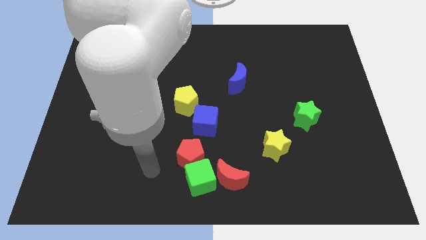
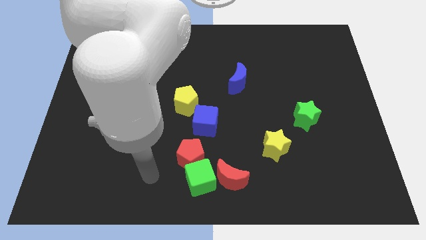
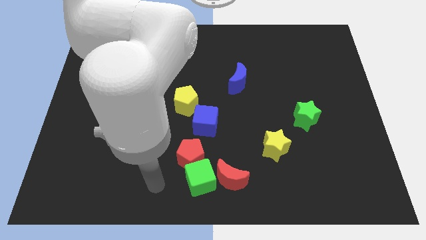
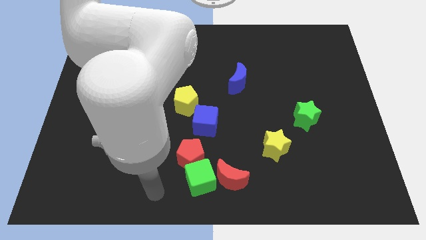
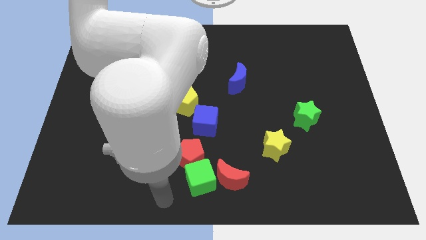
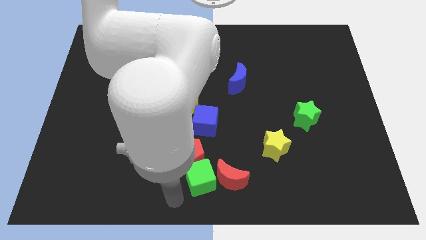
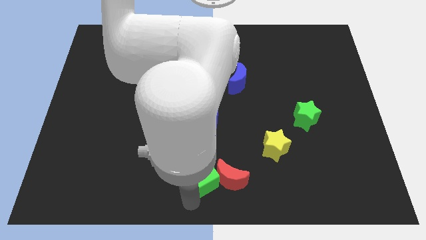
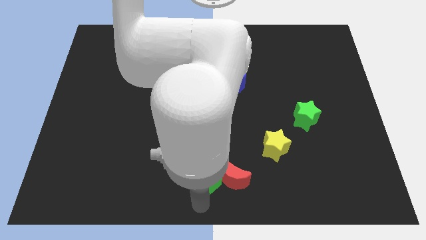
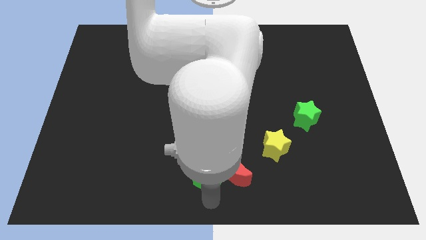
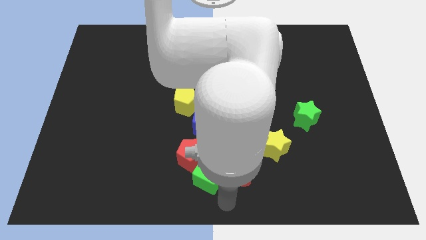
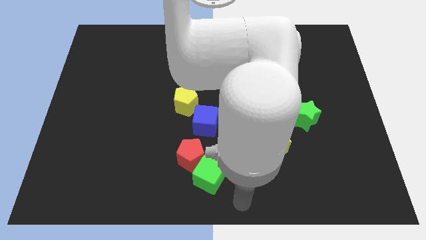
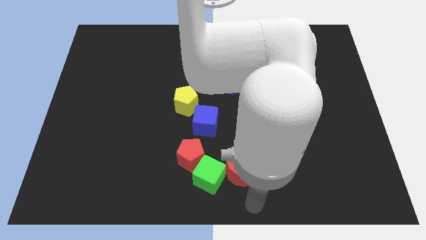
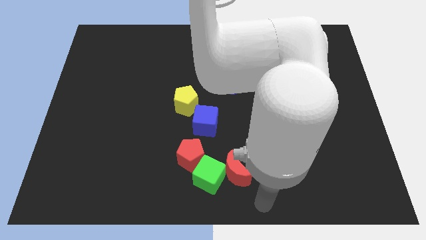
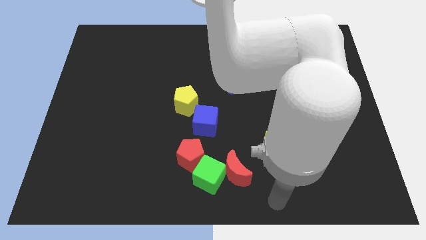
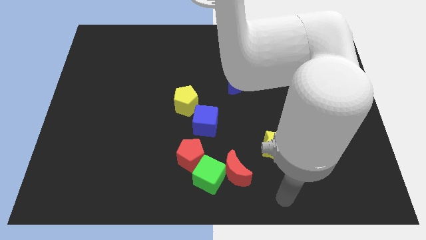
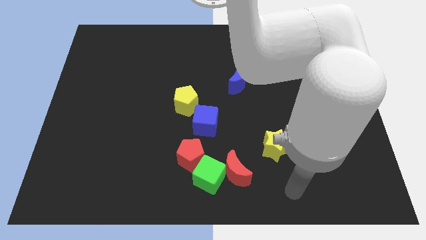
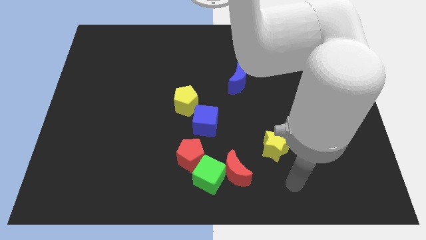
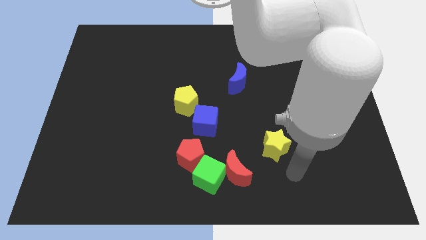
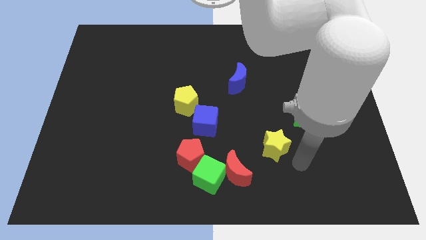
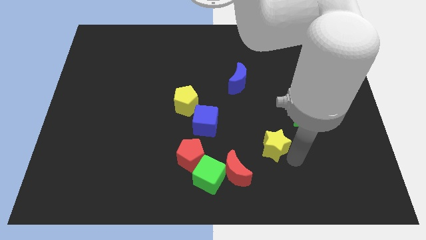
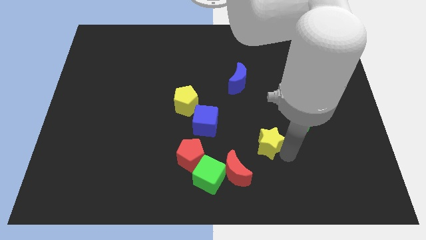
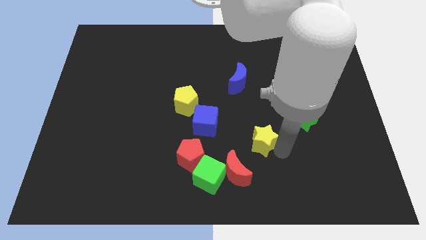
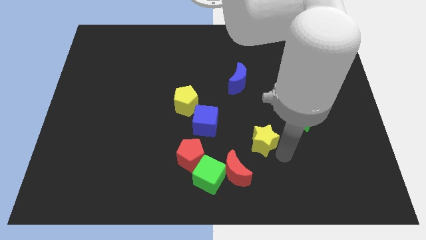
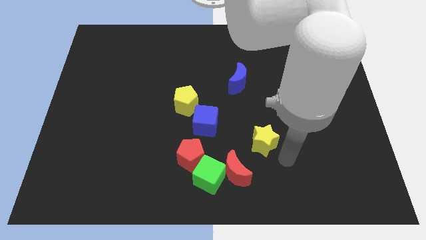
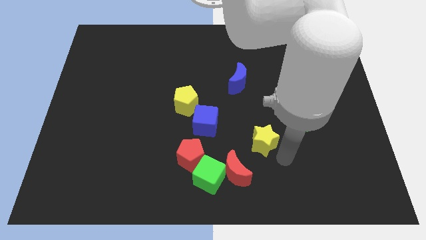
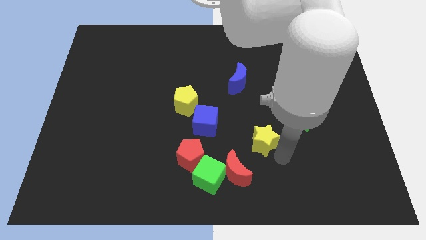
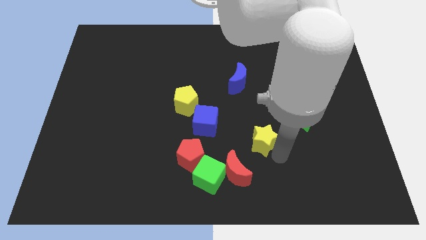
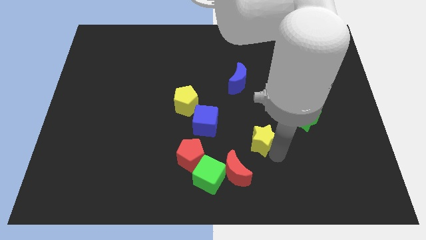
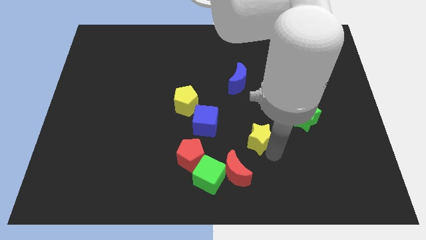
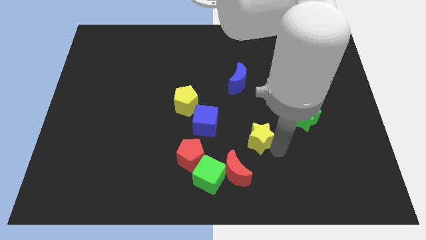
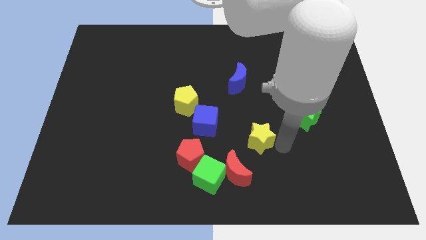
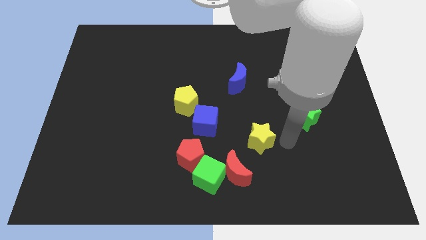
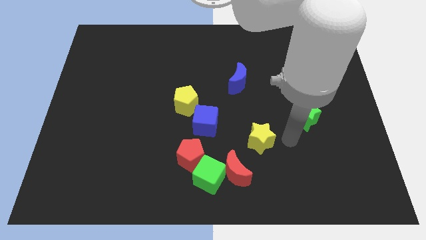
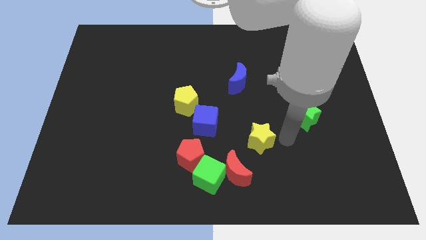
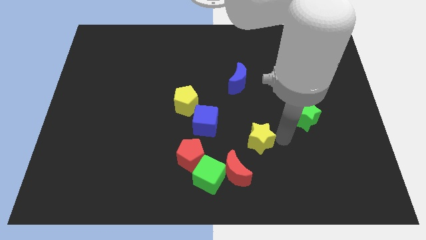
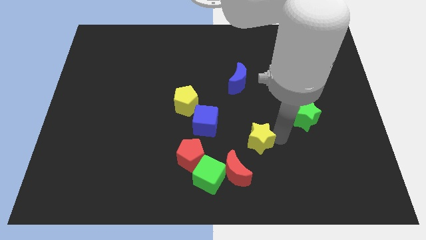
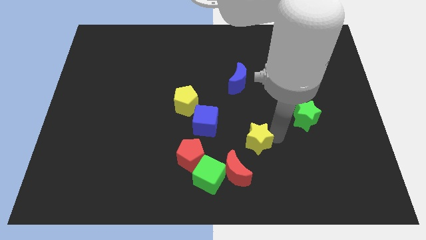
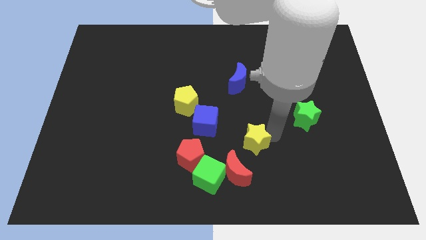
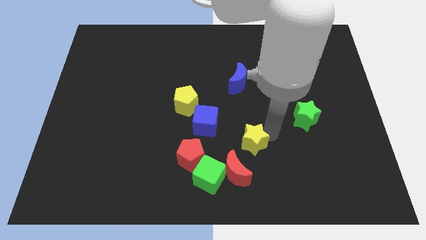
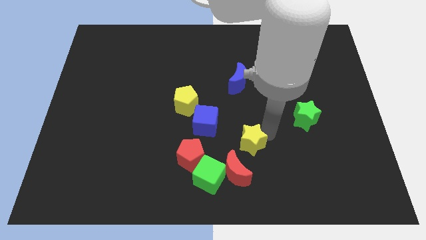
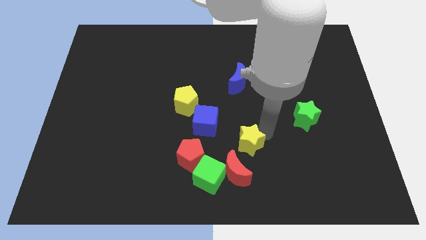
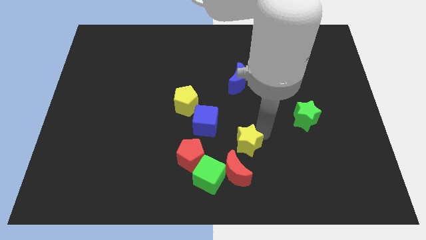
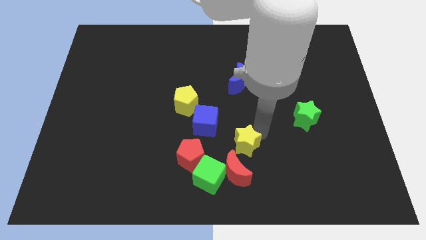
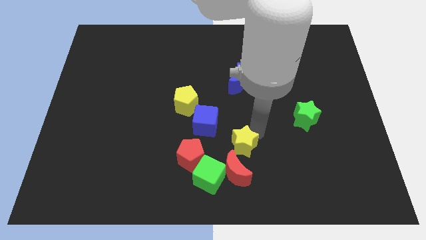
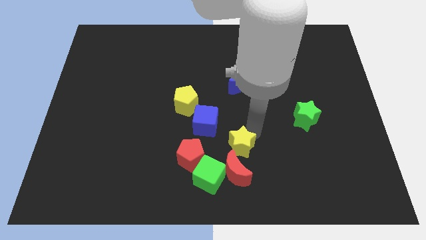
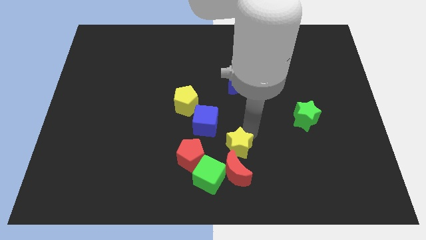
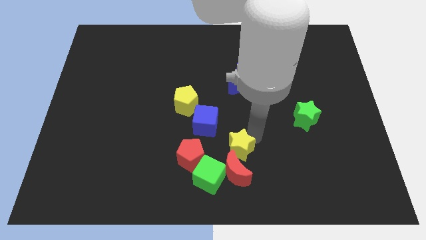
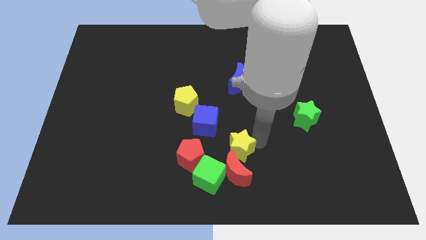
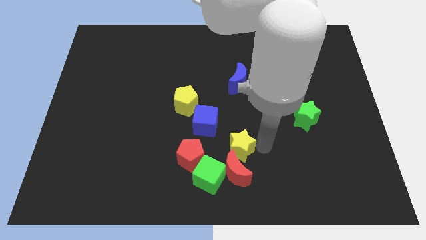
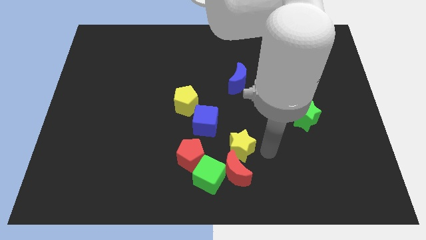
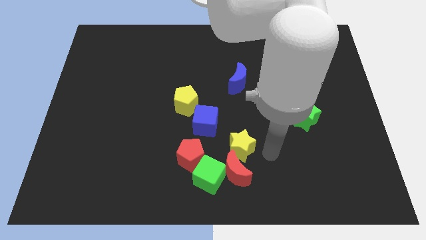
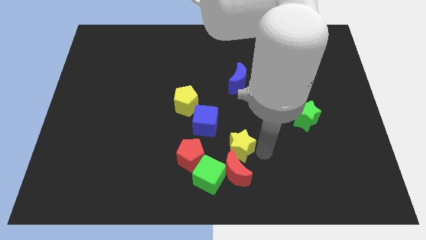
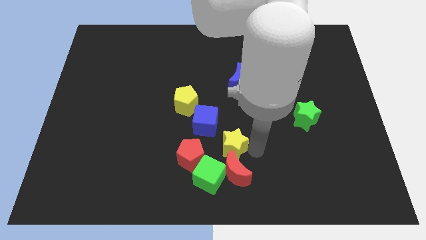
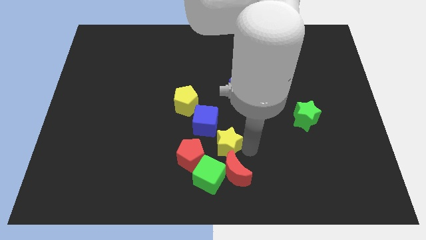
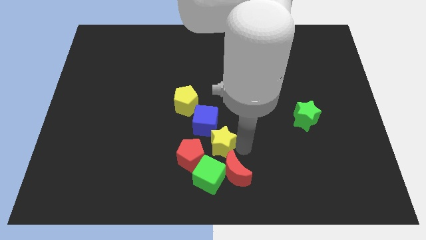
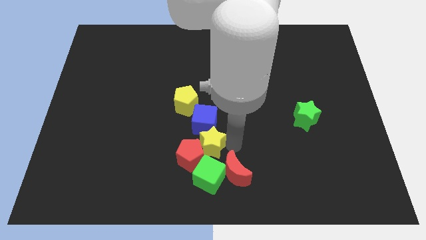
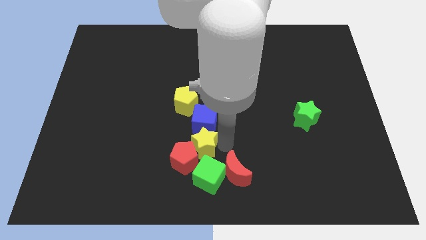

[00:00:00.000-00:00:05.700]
put the yellow star to the bottom of the yellow pentagon

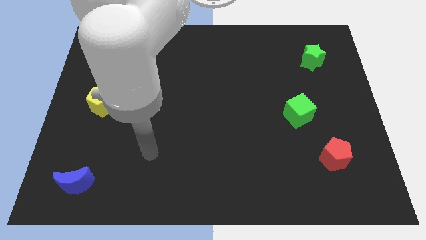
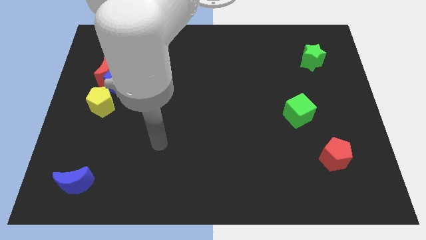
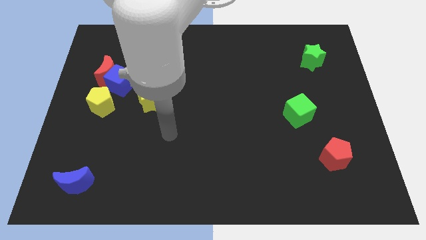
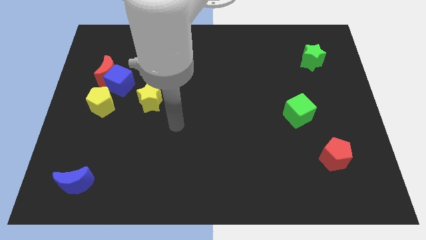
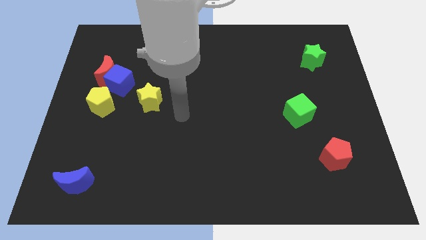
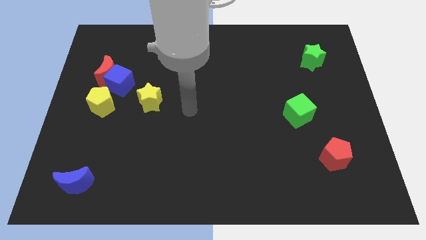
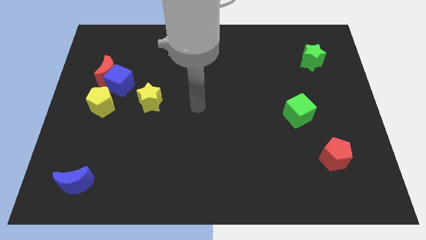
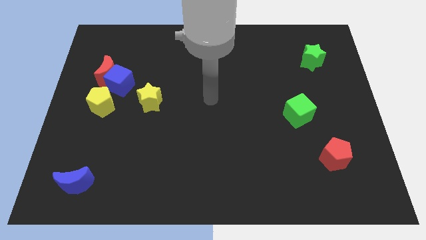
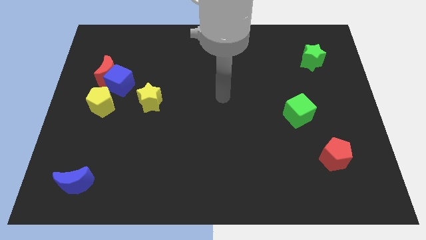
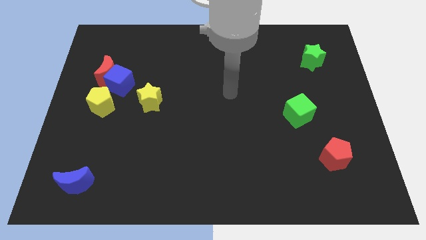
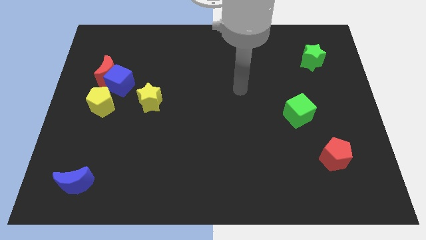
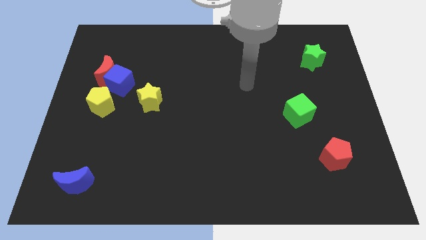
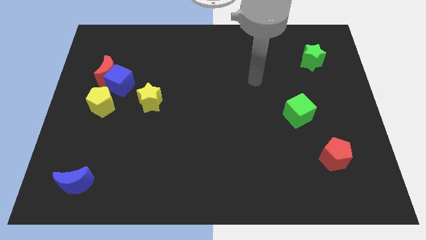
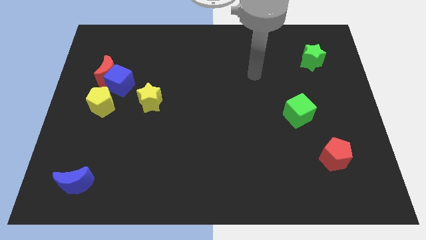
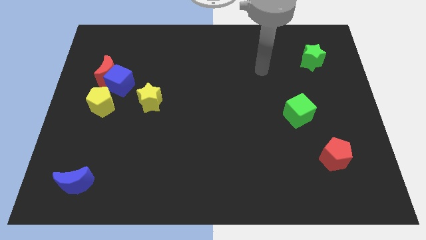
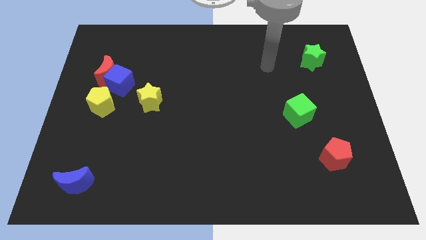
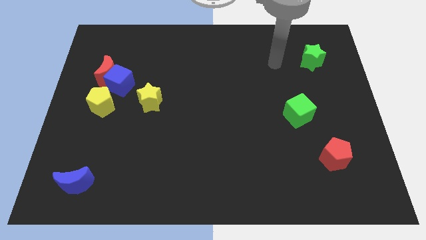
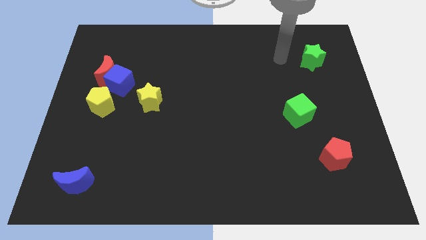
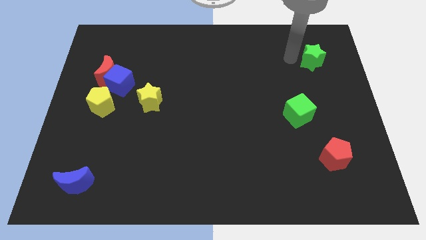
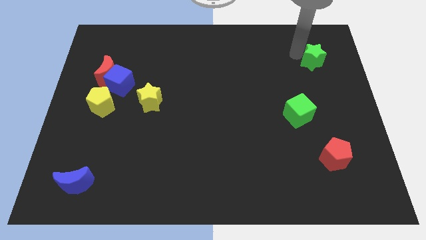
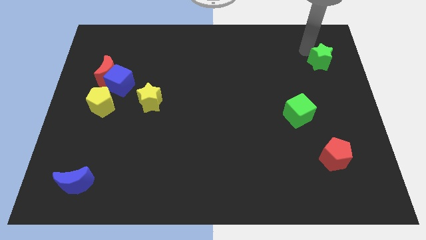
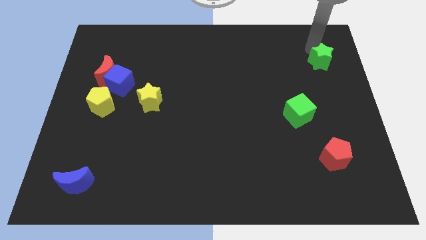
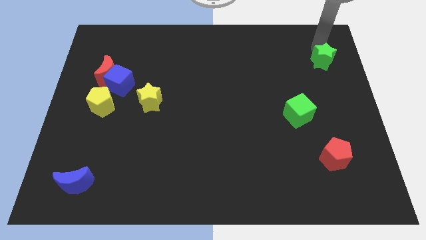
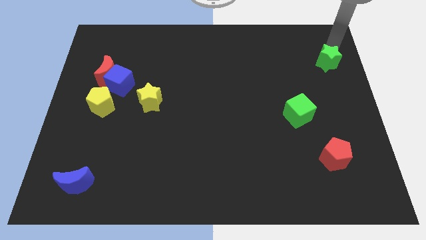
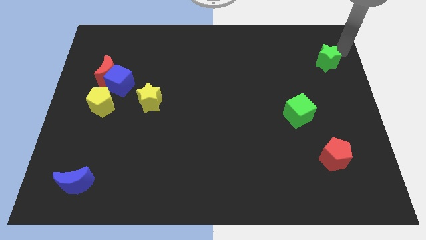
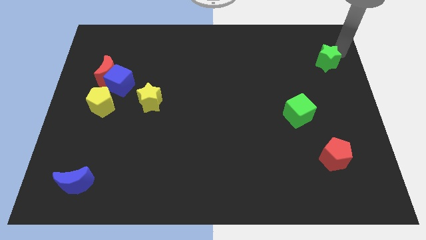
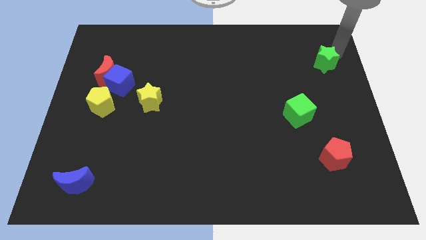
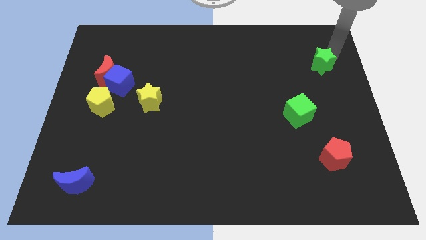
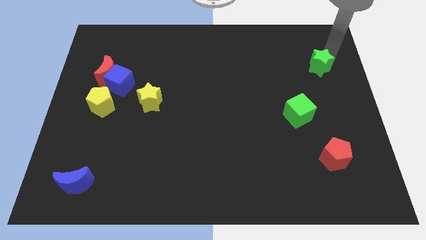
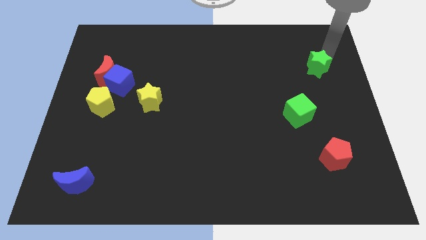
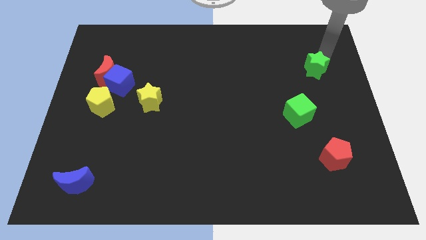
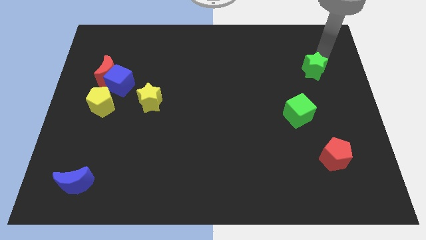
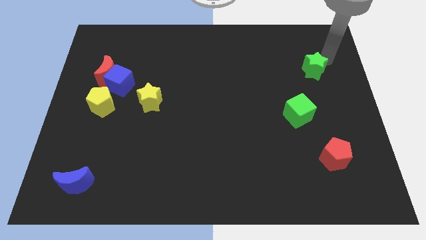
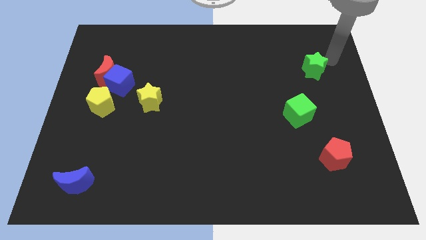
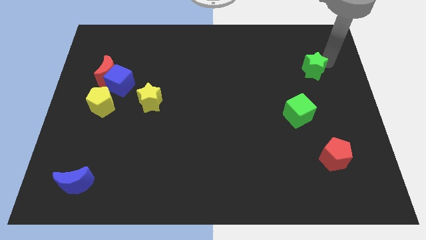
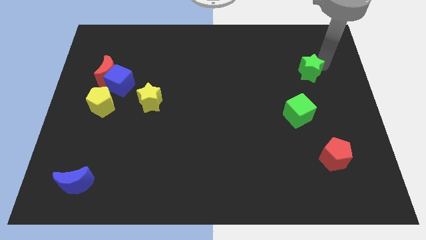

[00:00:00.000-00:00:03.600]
push the green star above the green cube
